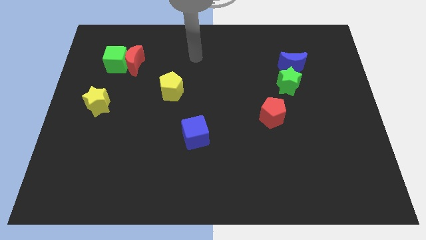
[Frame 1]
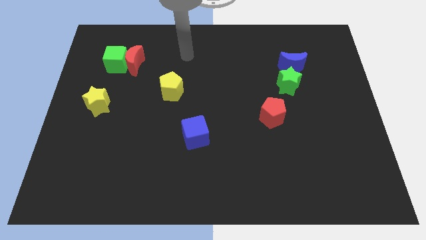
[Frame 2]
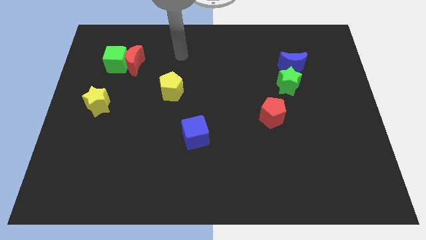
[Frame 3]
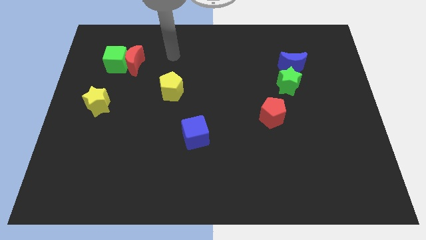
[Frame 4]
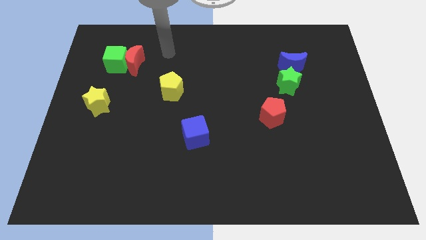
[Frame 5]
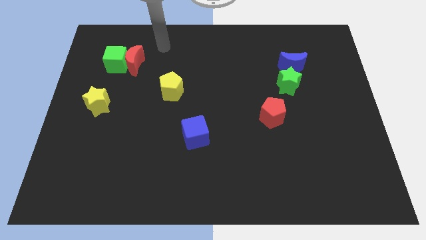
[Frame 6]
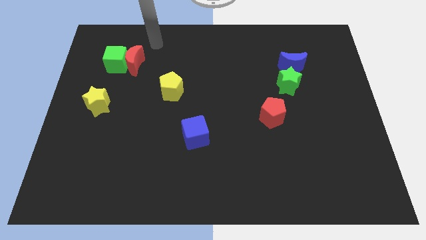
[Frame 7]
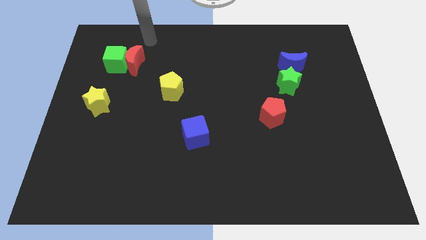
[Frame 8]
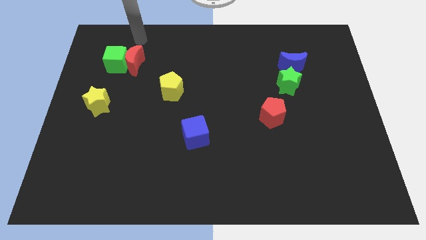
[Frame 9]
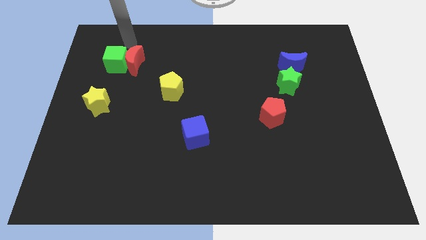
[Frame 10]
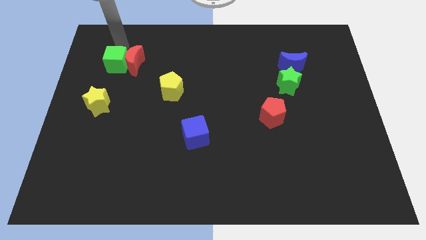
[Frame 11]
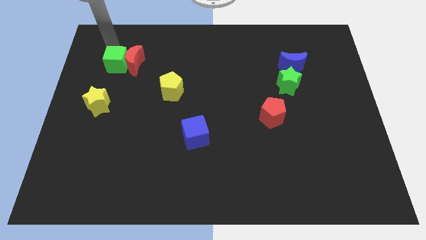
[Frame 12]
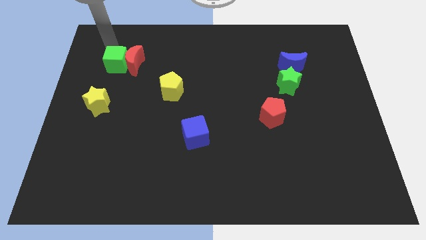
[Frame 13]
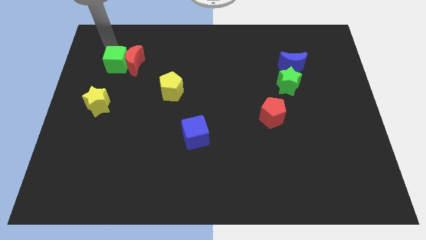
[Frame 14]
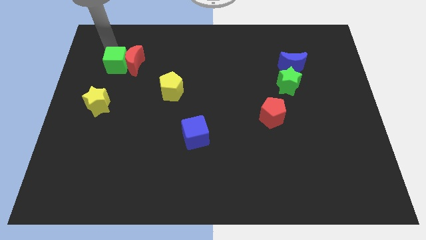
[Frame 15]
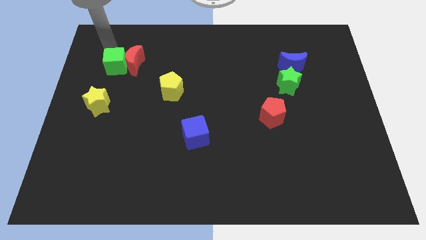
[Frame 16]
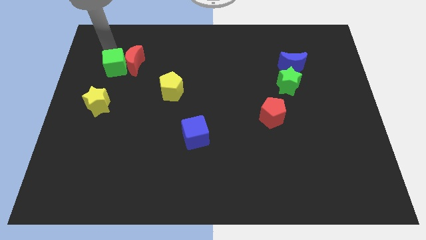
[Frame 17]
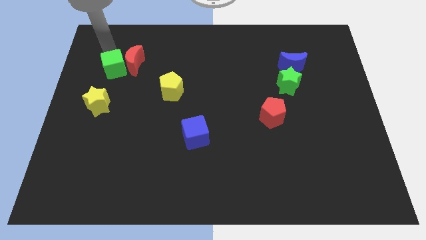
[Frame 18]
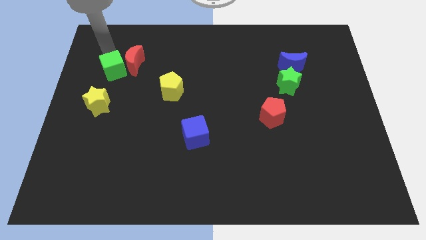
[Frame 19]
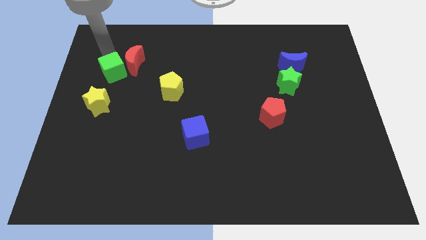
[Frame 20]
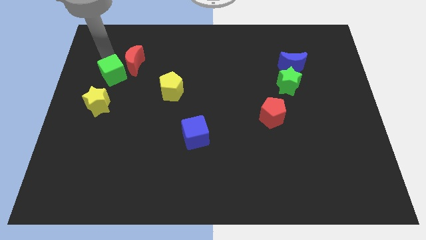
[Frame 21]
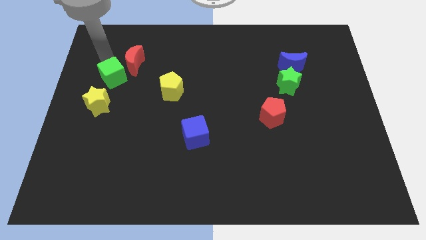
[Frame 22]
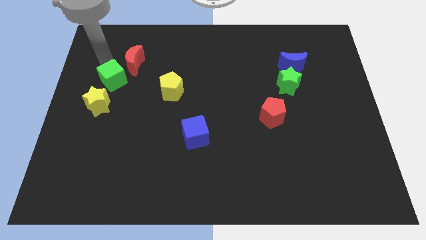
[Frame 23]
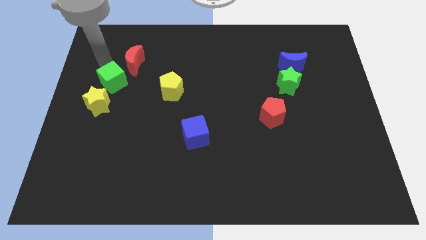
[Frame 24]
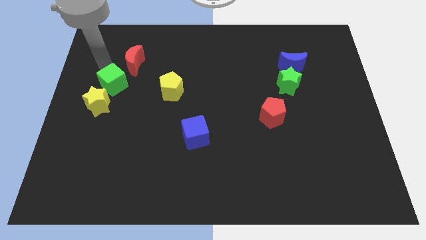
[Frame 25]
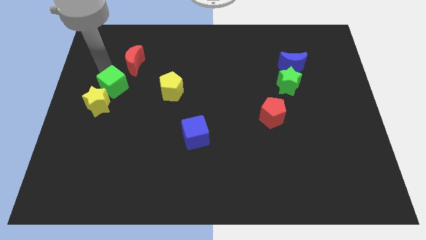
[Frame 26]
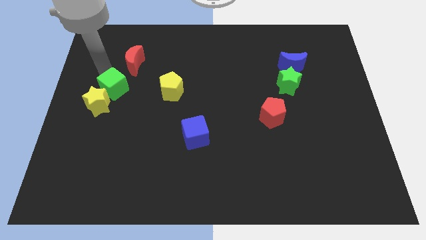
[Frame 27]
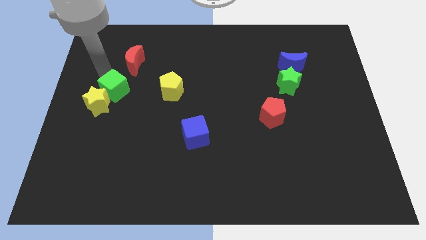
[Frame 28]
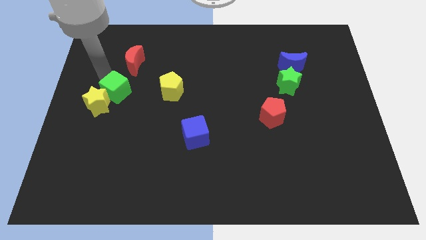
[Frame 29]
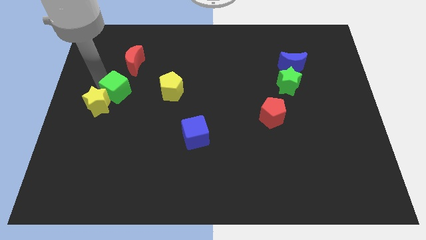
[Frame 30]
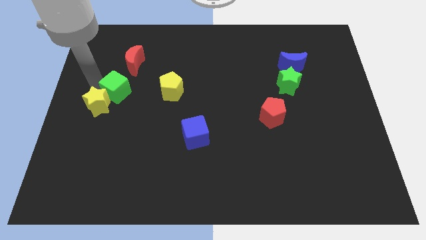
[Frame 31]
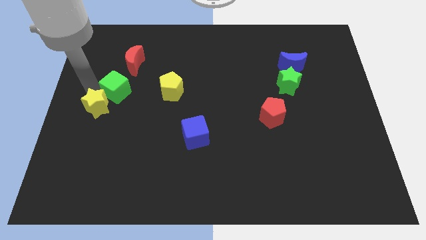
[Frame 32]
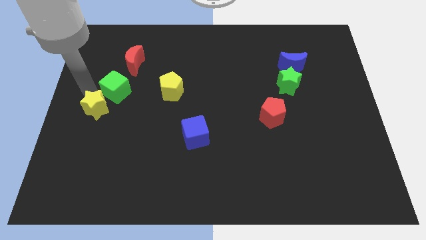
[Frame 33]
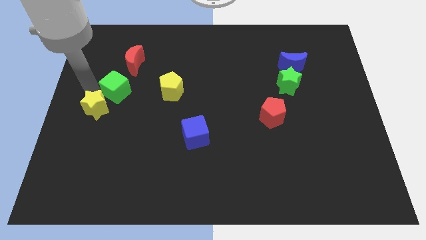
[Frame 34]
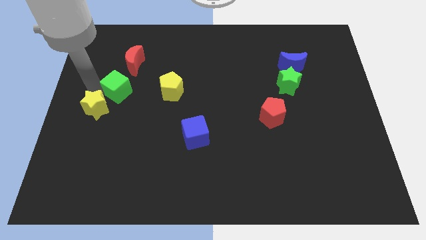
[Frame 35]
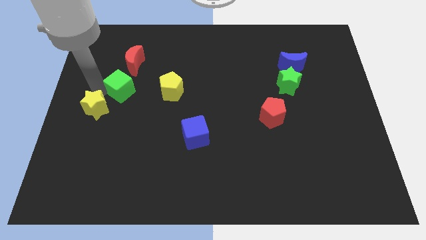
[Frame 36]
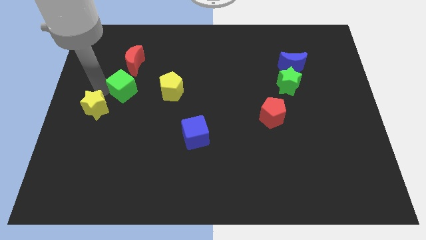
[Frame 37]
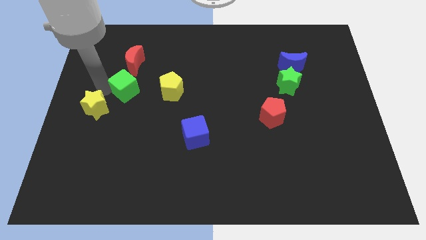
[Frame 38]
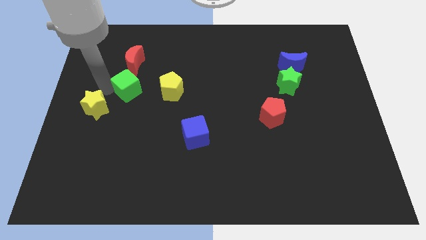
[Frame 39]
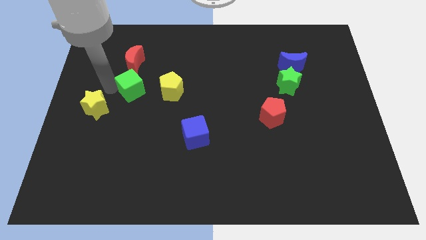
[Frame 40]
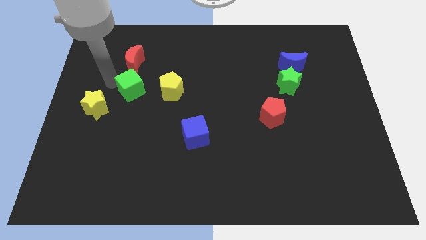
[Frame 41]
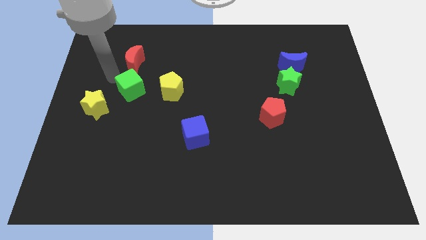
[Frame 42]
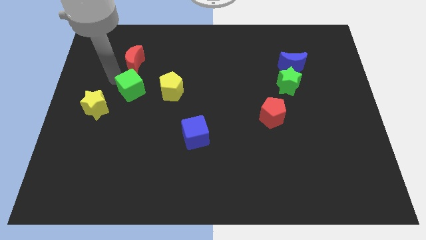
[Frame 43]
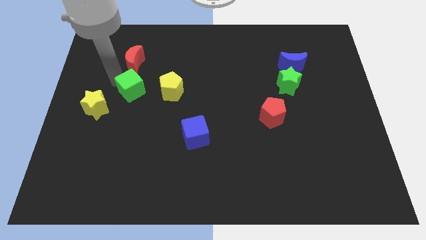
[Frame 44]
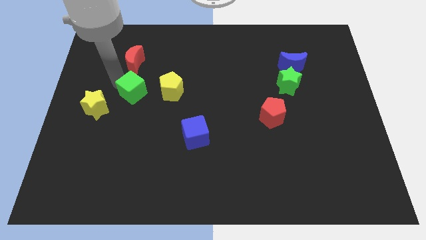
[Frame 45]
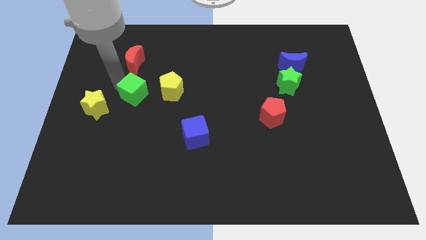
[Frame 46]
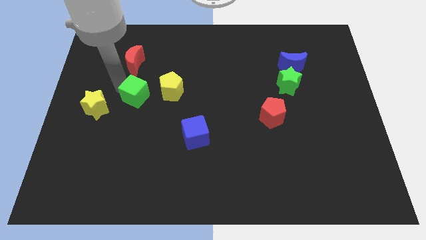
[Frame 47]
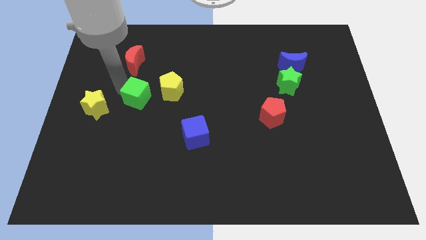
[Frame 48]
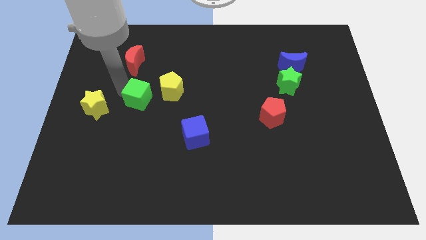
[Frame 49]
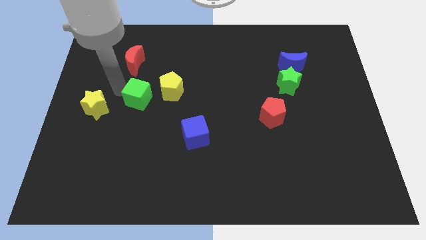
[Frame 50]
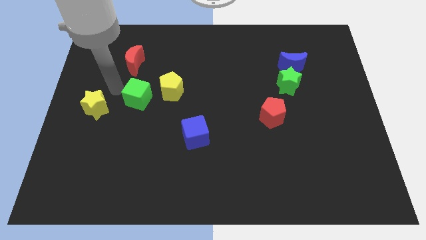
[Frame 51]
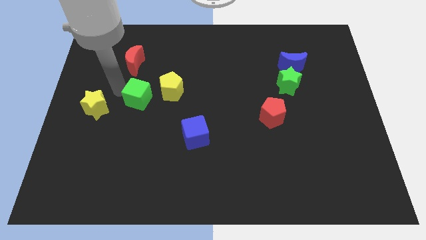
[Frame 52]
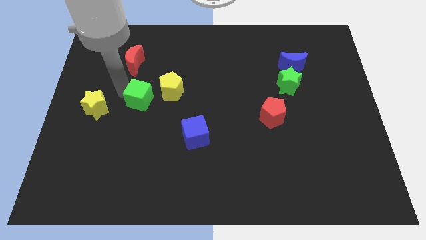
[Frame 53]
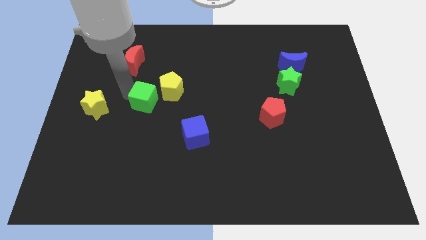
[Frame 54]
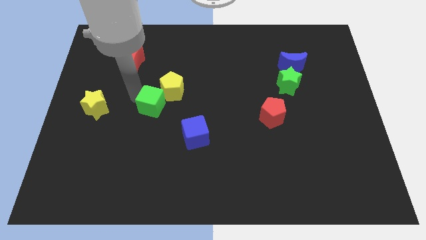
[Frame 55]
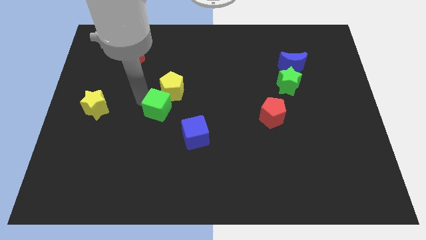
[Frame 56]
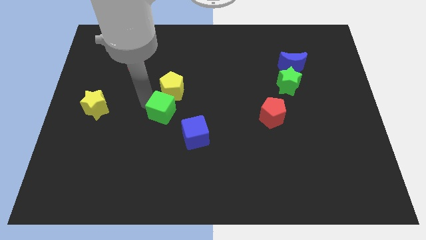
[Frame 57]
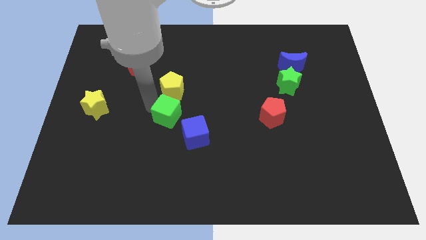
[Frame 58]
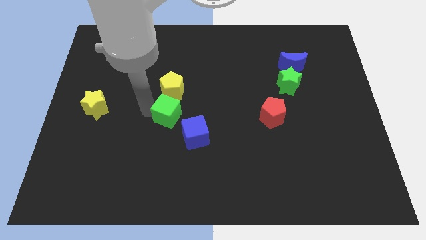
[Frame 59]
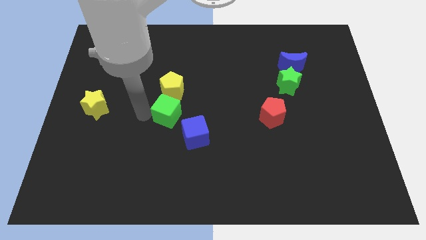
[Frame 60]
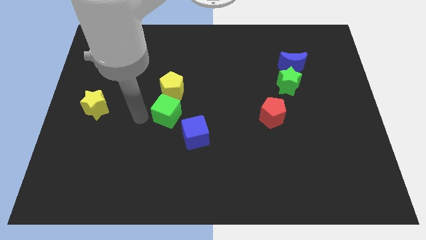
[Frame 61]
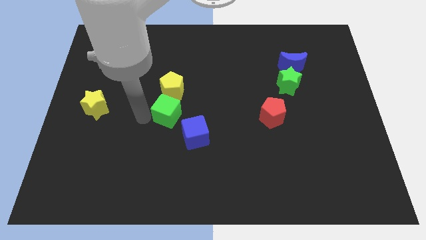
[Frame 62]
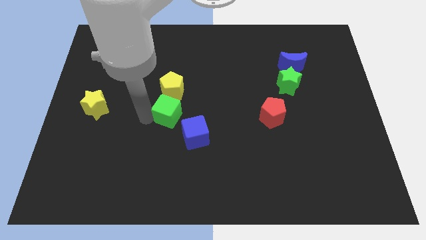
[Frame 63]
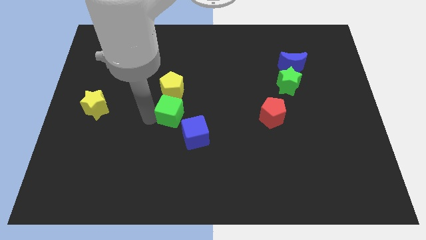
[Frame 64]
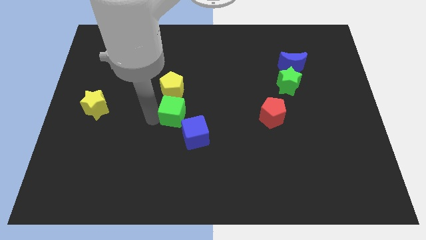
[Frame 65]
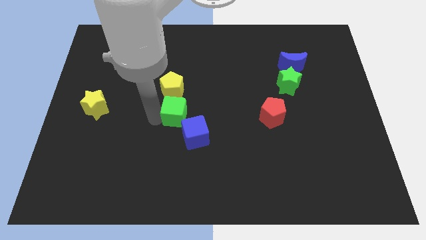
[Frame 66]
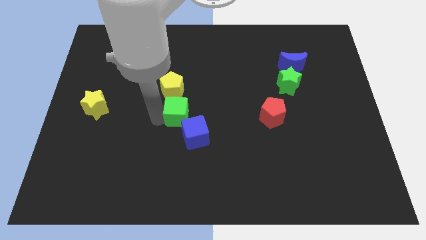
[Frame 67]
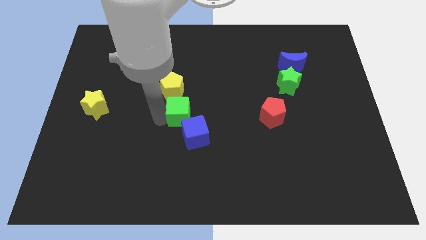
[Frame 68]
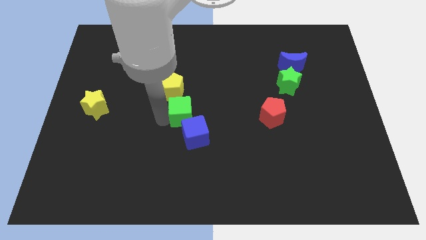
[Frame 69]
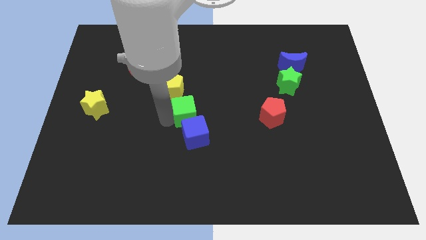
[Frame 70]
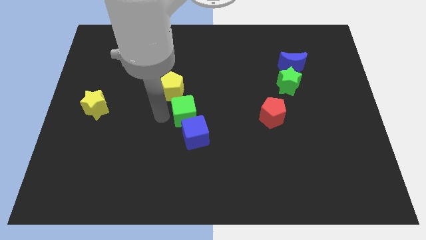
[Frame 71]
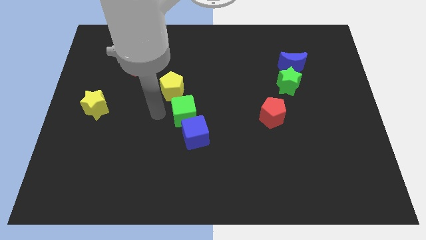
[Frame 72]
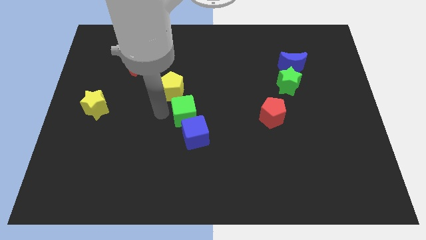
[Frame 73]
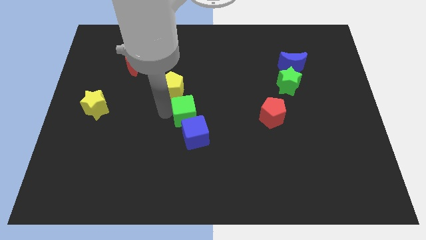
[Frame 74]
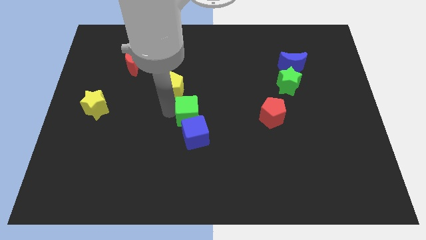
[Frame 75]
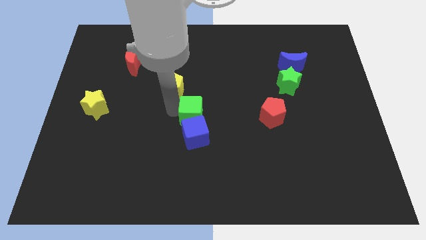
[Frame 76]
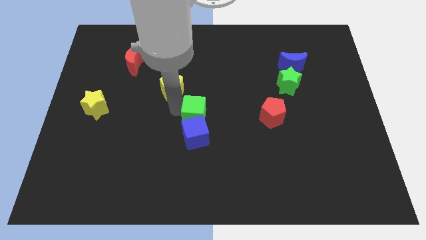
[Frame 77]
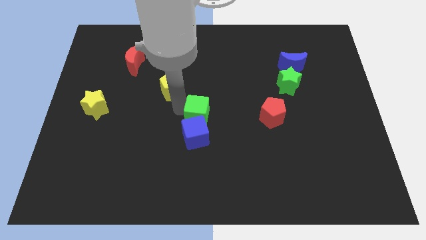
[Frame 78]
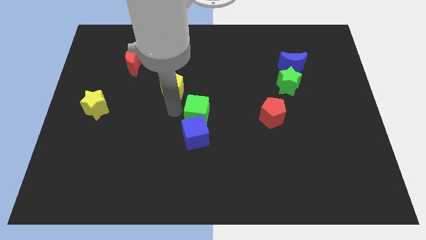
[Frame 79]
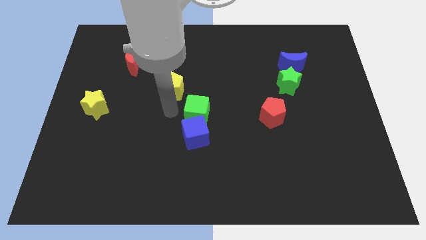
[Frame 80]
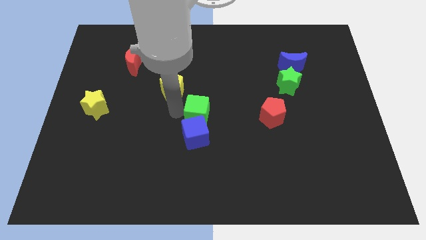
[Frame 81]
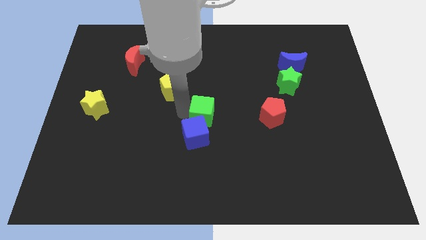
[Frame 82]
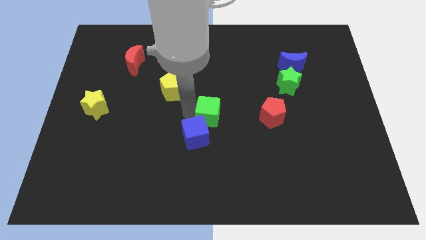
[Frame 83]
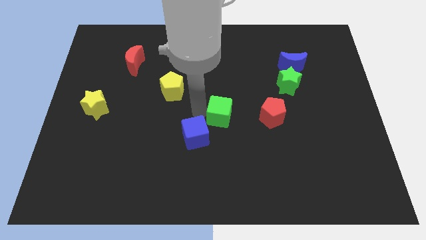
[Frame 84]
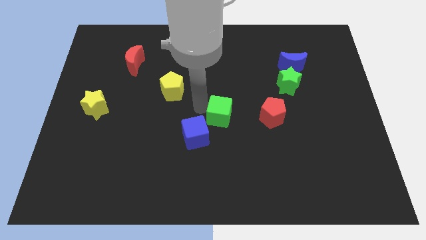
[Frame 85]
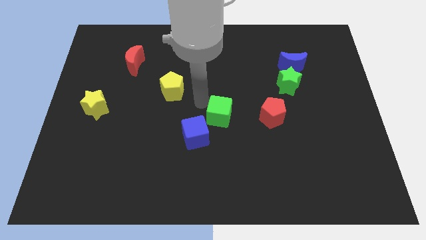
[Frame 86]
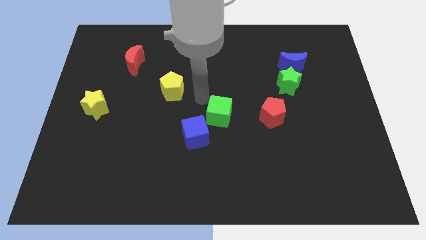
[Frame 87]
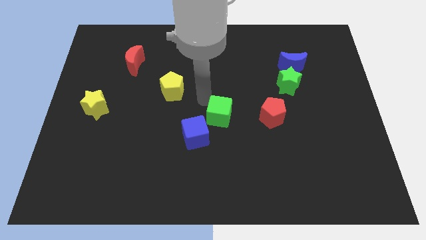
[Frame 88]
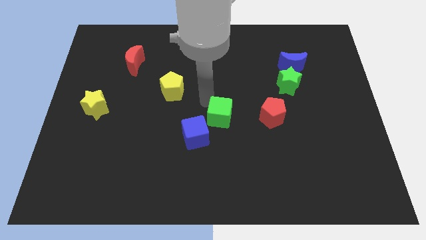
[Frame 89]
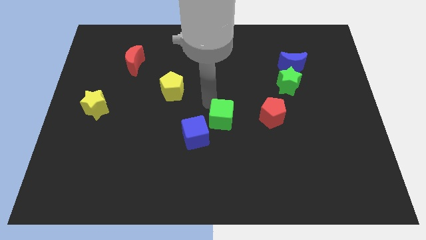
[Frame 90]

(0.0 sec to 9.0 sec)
put the green cube to the right of the blue cube
